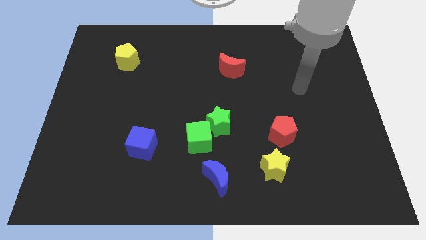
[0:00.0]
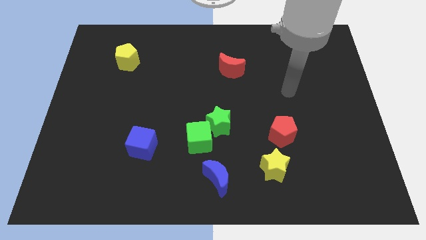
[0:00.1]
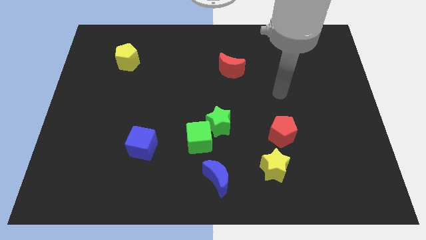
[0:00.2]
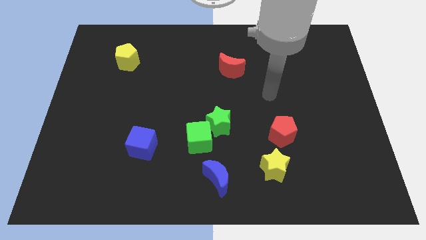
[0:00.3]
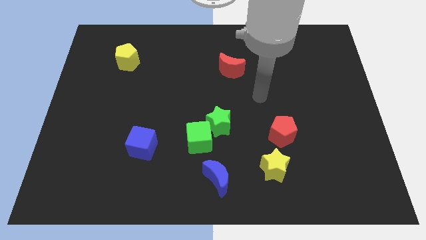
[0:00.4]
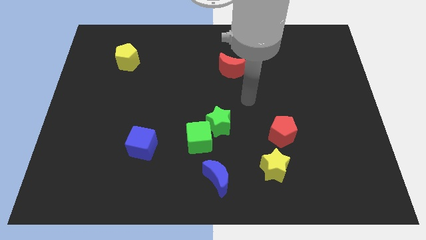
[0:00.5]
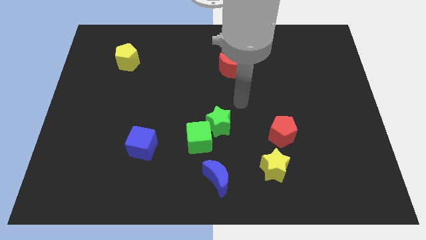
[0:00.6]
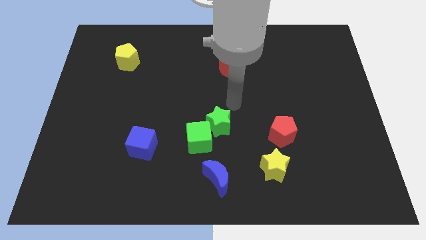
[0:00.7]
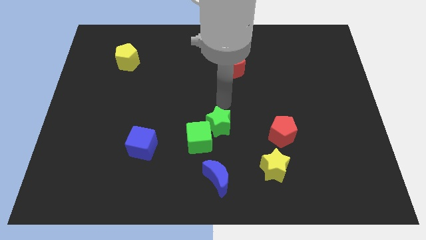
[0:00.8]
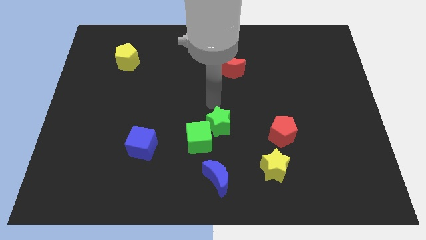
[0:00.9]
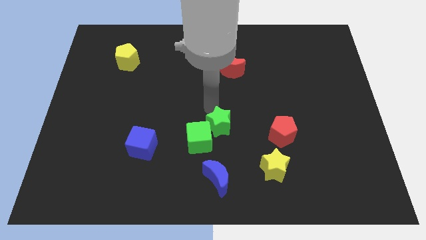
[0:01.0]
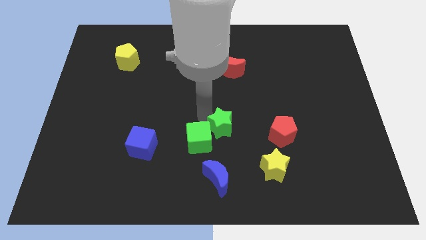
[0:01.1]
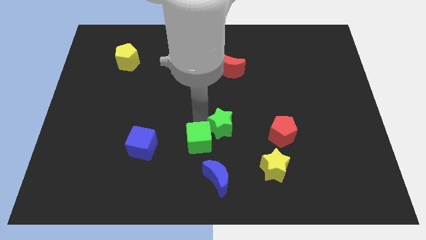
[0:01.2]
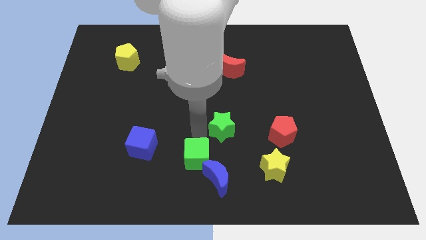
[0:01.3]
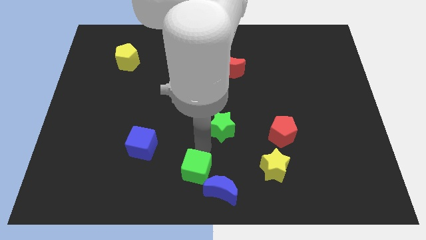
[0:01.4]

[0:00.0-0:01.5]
separate the green star from the green cube

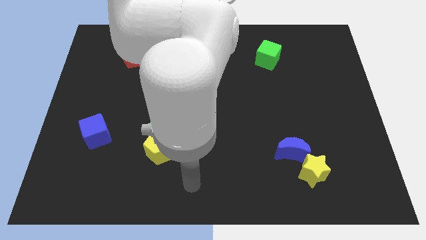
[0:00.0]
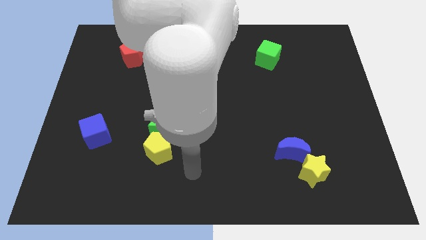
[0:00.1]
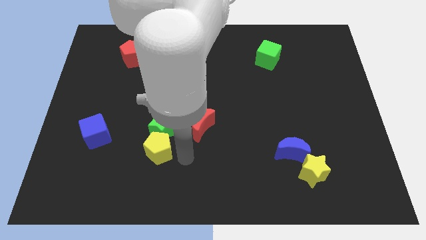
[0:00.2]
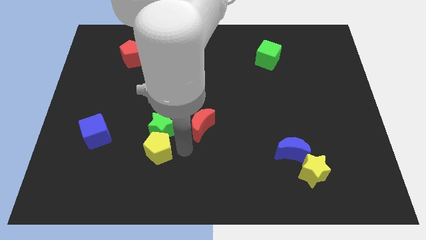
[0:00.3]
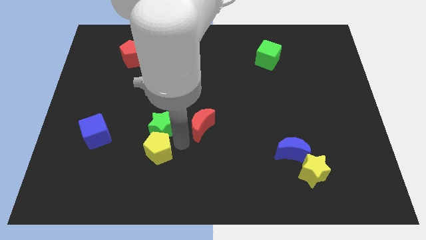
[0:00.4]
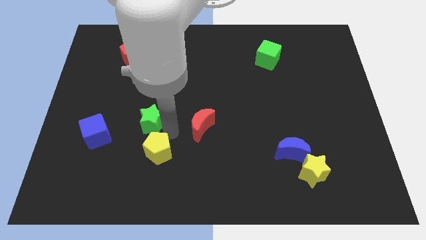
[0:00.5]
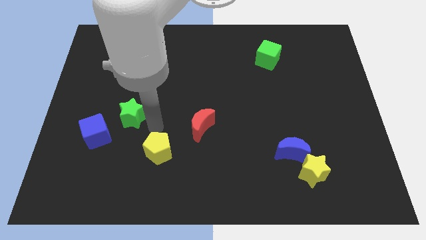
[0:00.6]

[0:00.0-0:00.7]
move the yellow pentagon away from the green star

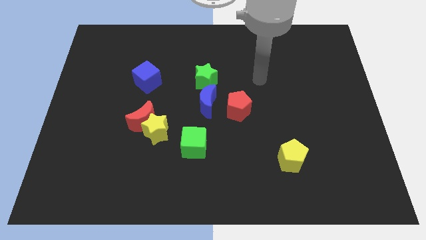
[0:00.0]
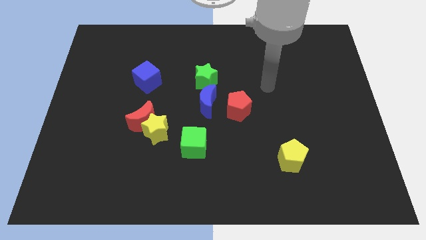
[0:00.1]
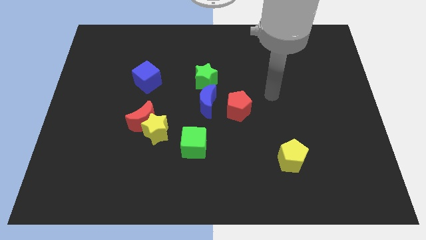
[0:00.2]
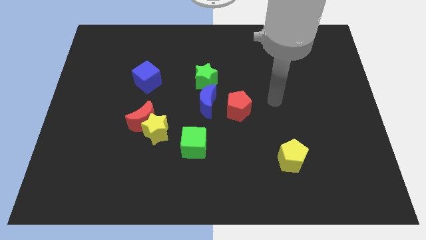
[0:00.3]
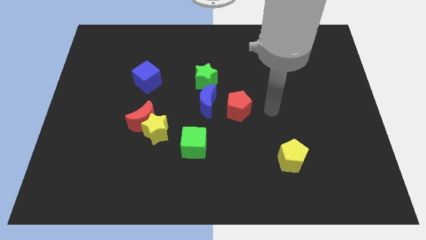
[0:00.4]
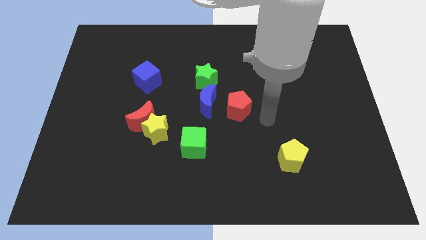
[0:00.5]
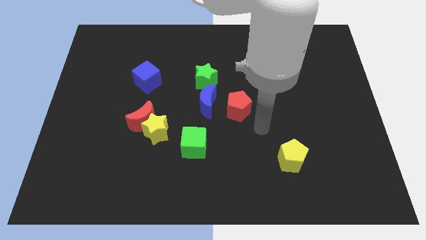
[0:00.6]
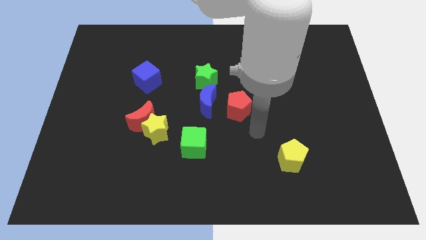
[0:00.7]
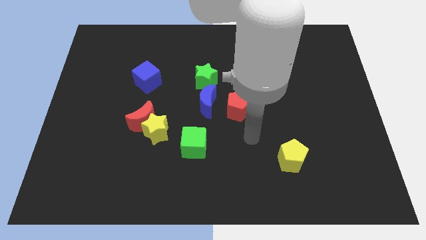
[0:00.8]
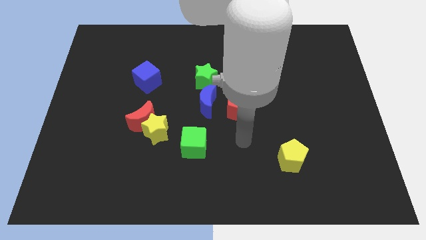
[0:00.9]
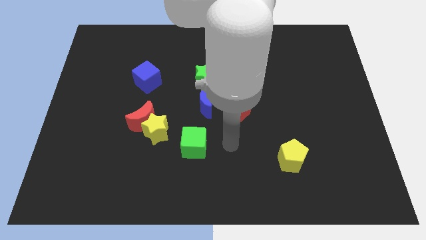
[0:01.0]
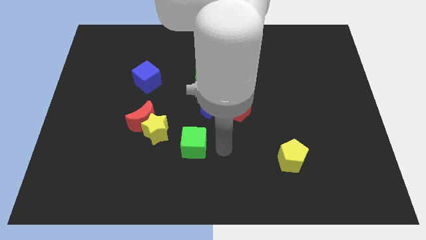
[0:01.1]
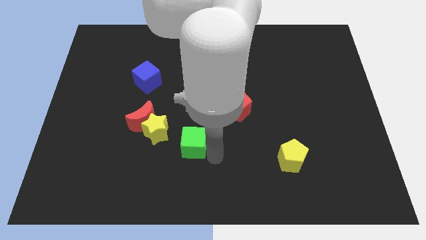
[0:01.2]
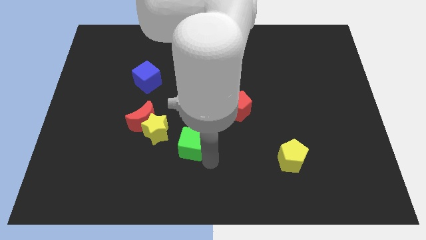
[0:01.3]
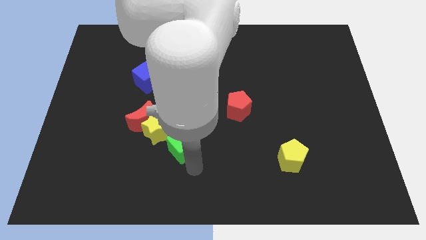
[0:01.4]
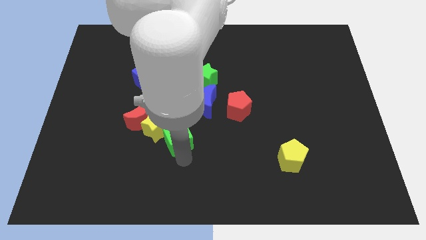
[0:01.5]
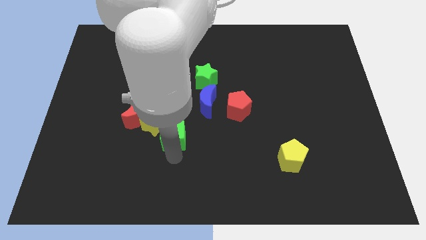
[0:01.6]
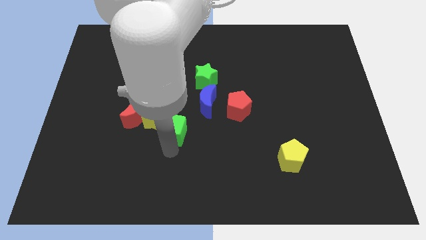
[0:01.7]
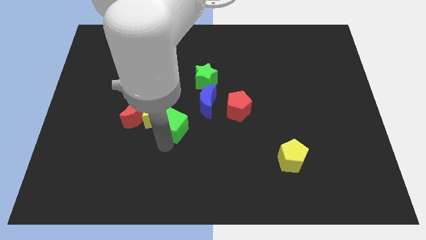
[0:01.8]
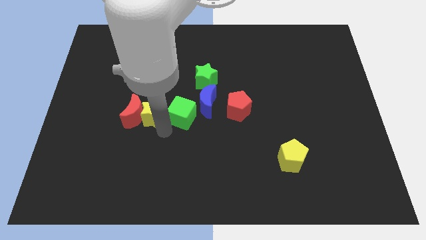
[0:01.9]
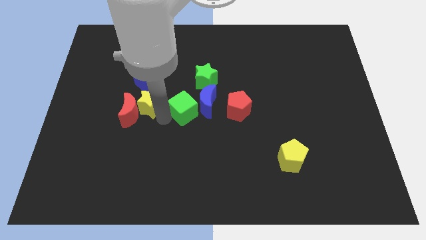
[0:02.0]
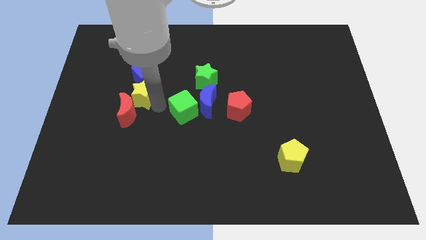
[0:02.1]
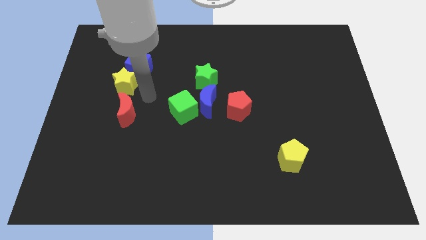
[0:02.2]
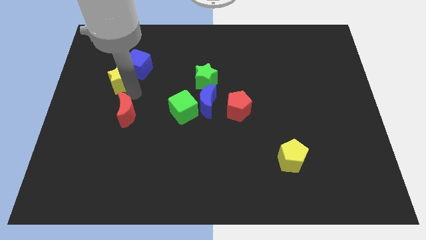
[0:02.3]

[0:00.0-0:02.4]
pull the red moon apart from the yellow star

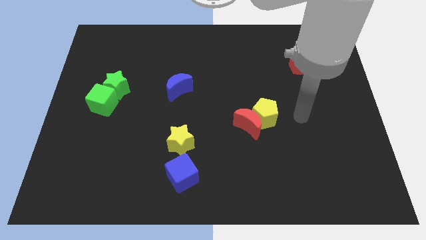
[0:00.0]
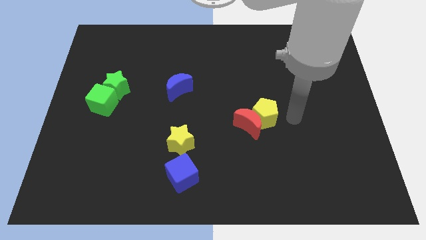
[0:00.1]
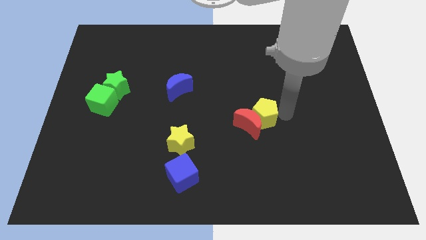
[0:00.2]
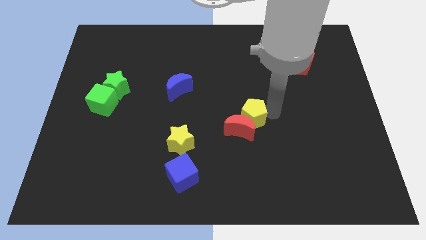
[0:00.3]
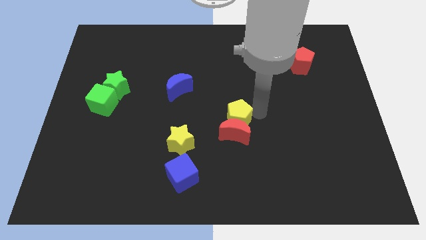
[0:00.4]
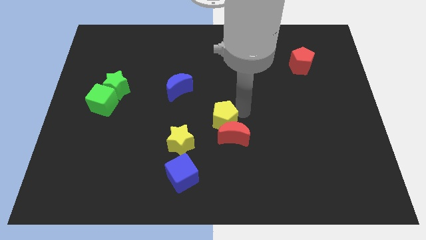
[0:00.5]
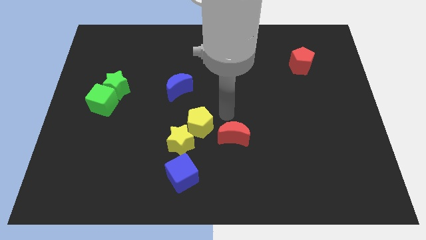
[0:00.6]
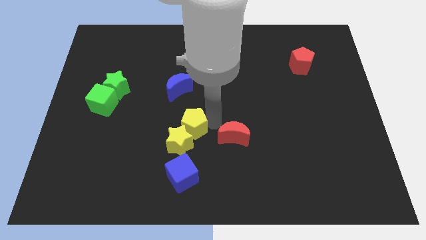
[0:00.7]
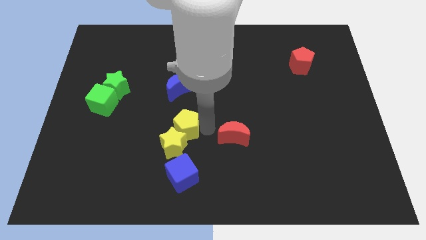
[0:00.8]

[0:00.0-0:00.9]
move the red moon away from the yellow pentagon

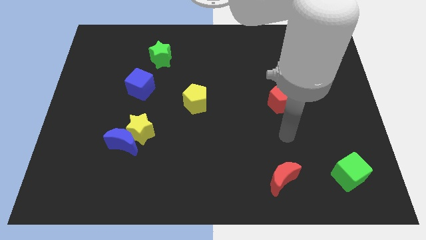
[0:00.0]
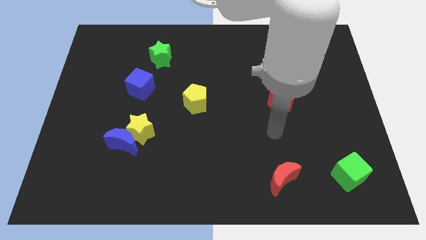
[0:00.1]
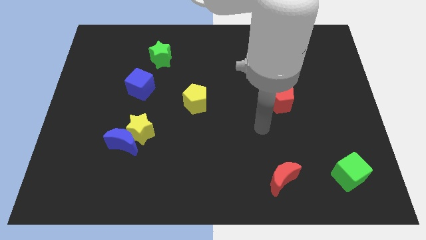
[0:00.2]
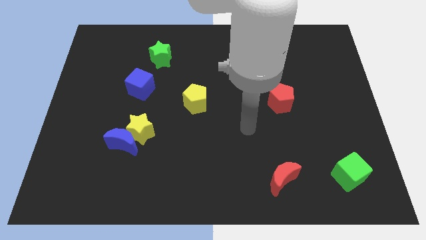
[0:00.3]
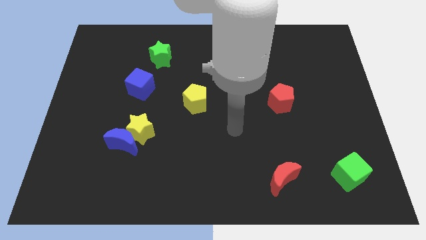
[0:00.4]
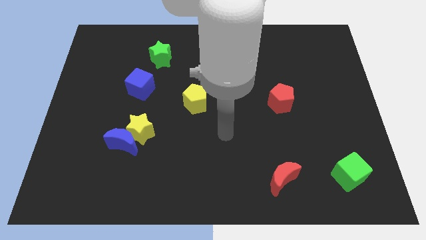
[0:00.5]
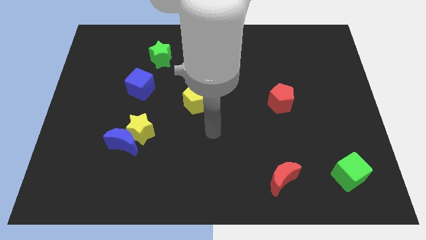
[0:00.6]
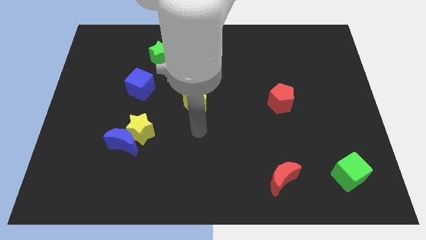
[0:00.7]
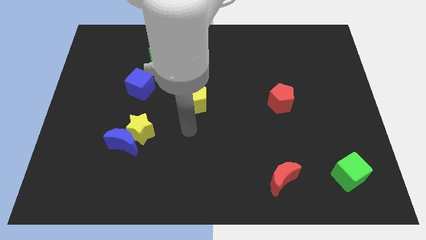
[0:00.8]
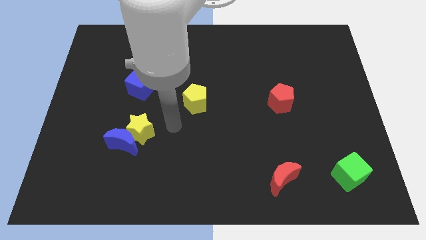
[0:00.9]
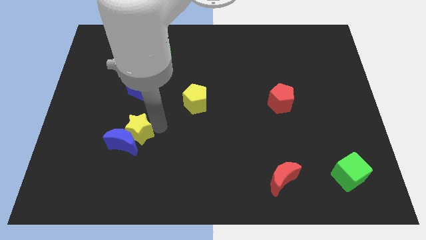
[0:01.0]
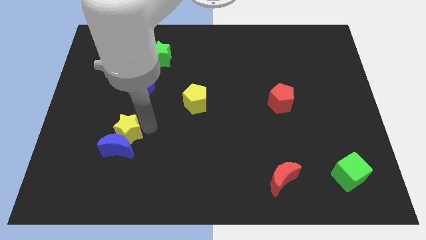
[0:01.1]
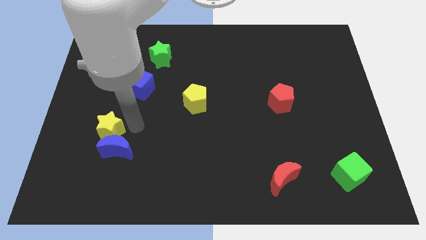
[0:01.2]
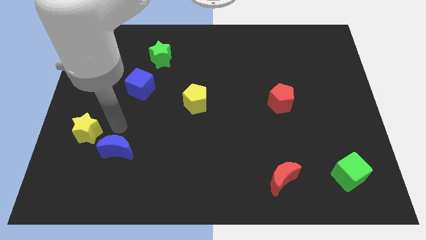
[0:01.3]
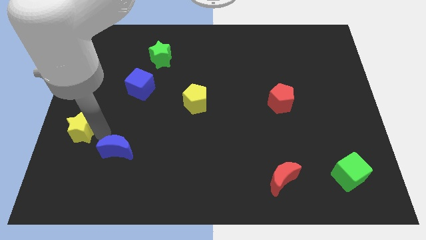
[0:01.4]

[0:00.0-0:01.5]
move the blue moon away from the yellow star

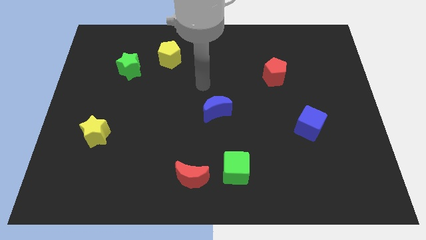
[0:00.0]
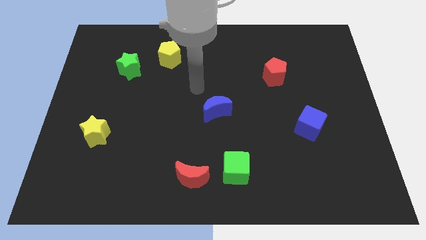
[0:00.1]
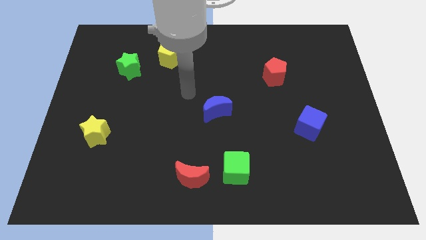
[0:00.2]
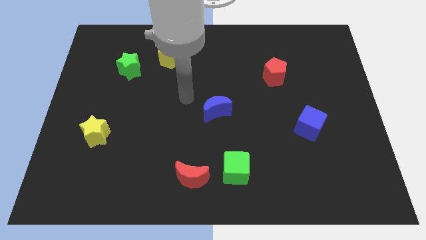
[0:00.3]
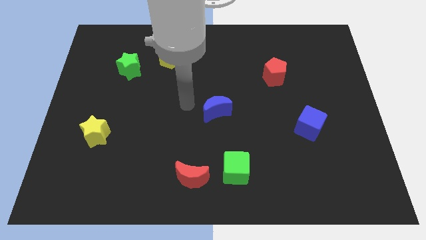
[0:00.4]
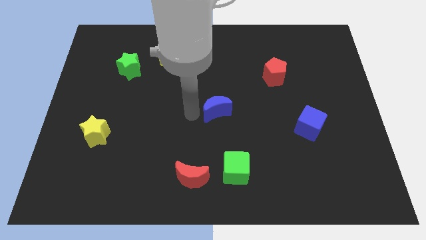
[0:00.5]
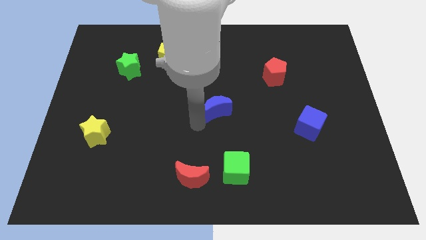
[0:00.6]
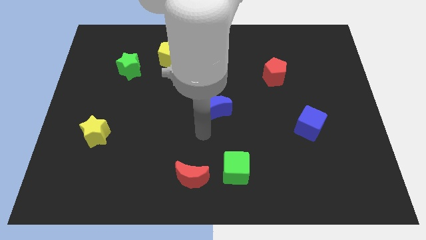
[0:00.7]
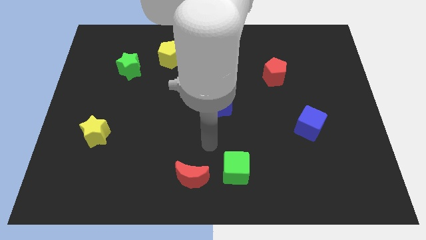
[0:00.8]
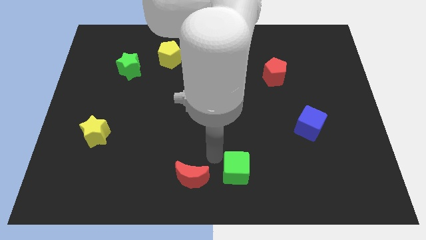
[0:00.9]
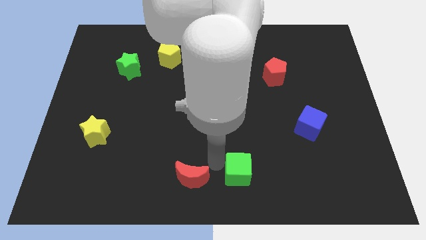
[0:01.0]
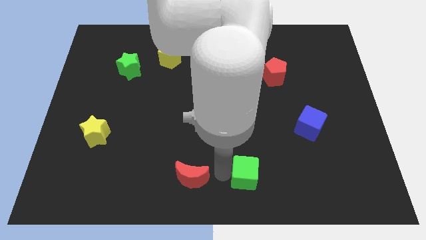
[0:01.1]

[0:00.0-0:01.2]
pull the red moon apart from the green cube

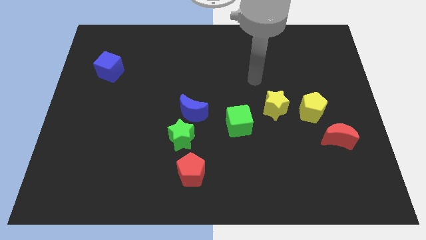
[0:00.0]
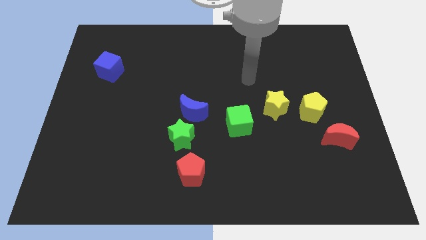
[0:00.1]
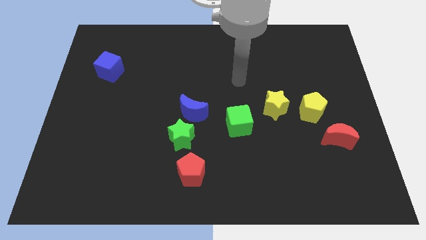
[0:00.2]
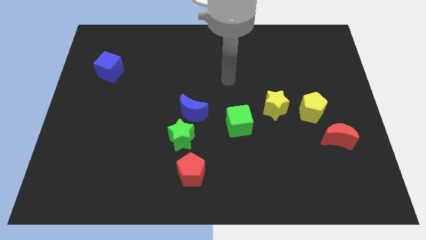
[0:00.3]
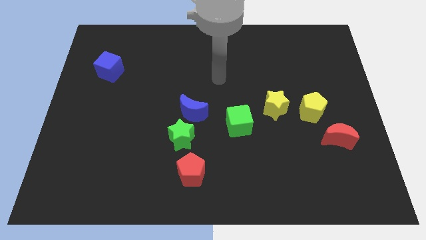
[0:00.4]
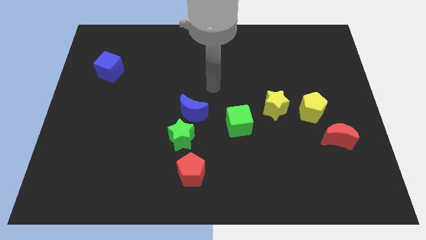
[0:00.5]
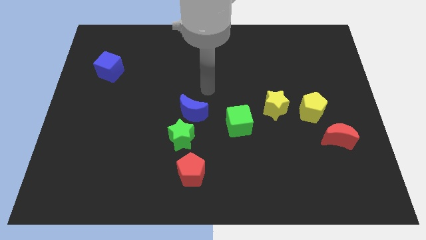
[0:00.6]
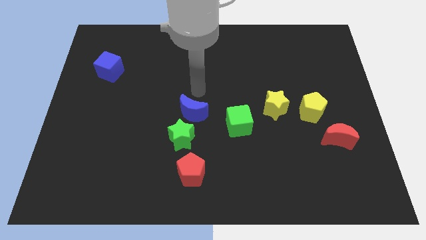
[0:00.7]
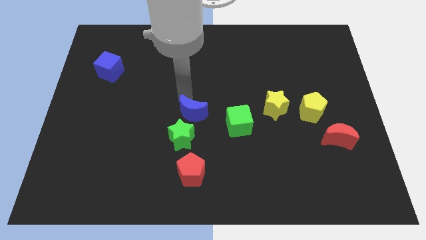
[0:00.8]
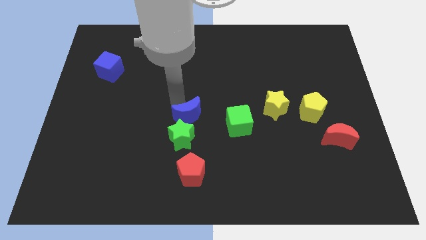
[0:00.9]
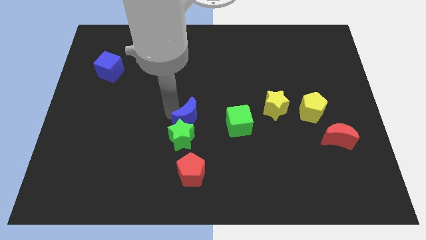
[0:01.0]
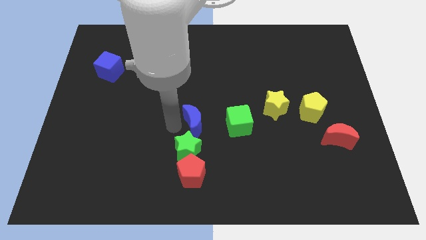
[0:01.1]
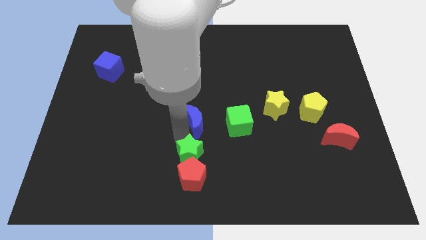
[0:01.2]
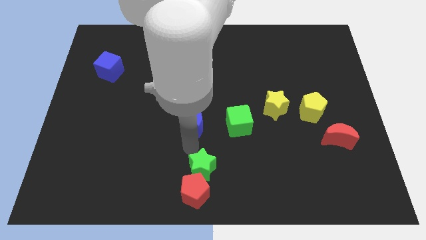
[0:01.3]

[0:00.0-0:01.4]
separate the blue moon from the green star
